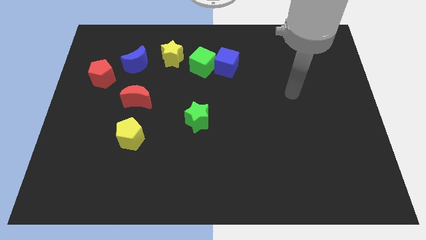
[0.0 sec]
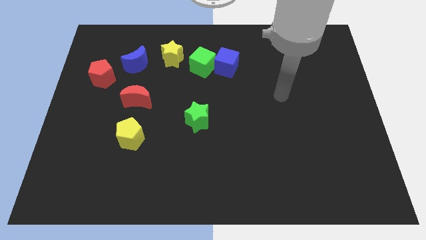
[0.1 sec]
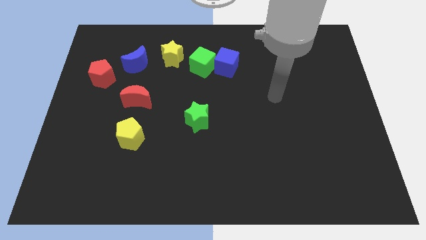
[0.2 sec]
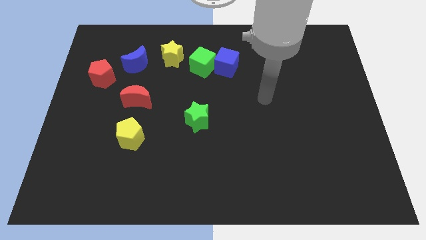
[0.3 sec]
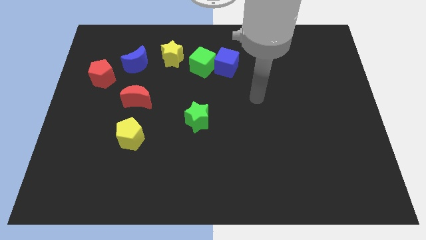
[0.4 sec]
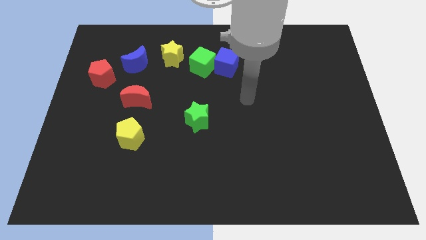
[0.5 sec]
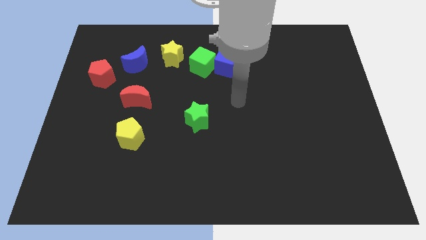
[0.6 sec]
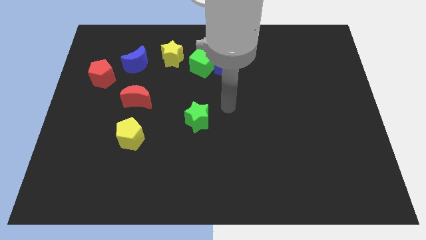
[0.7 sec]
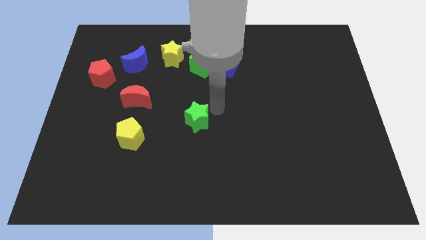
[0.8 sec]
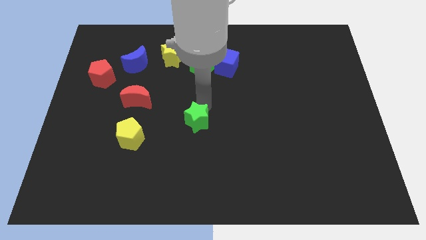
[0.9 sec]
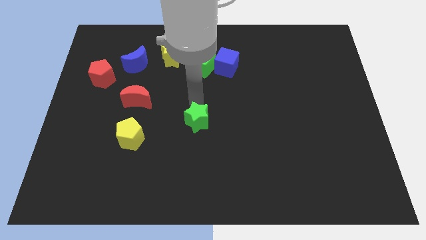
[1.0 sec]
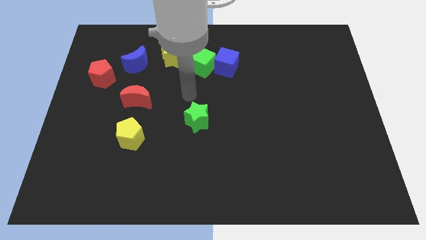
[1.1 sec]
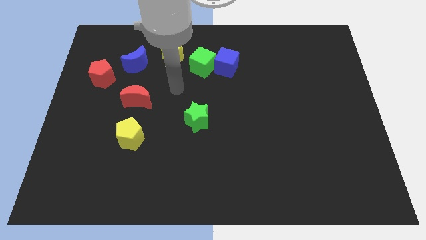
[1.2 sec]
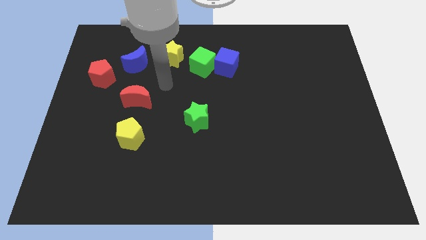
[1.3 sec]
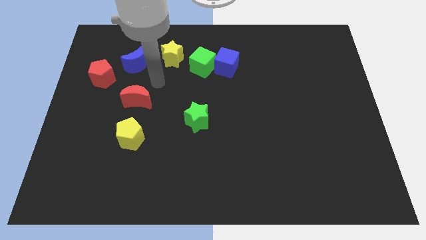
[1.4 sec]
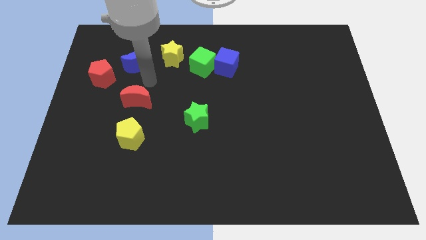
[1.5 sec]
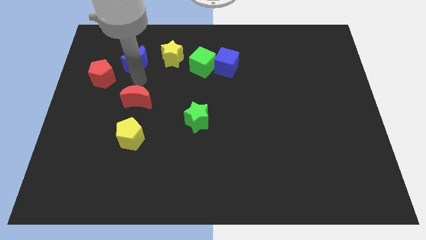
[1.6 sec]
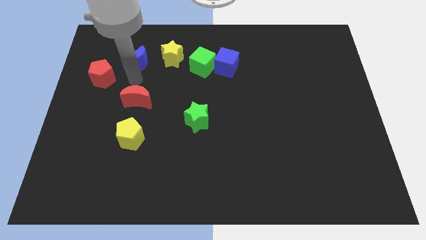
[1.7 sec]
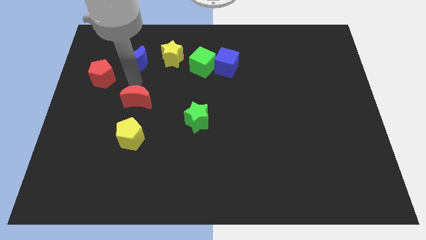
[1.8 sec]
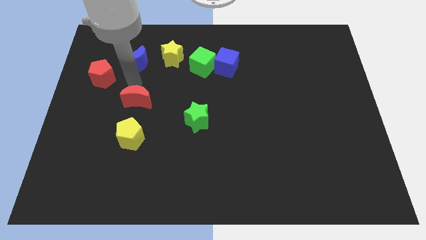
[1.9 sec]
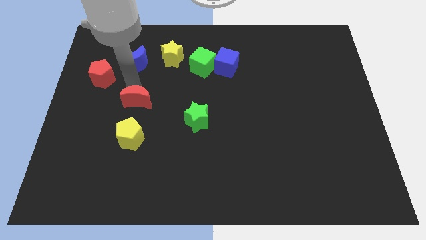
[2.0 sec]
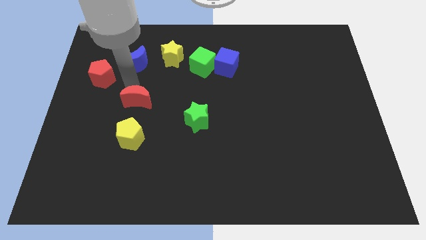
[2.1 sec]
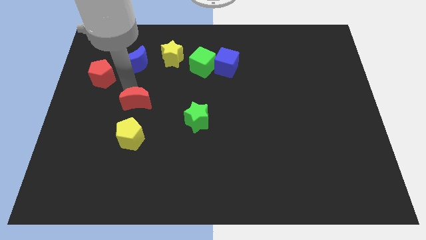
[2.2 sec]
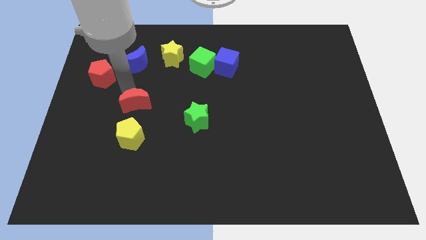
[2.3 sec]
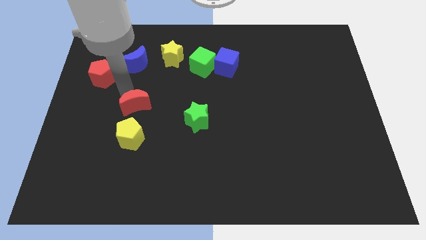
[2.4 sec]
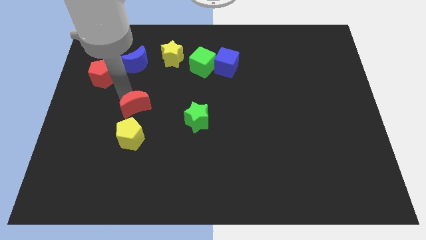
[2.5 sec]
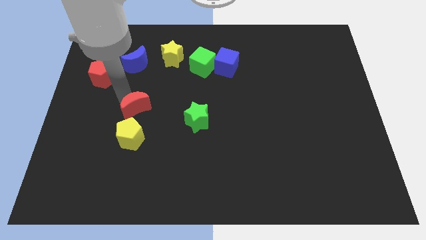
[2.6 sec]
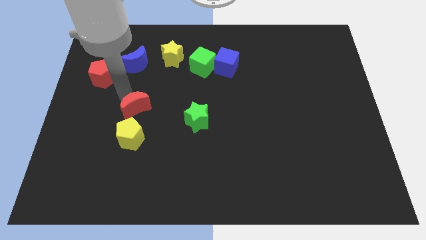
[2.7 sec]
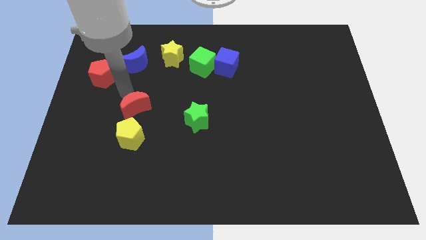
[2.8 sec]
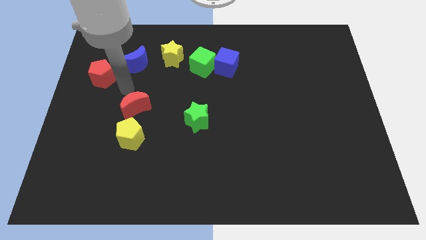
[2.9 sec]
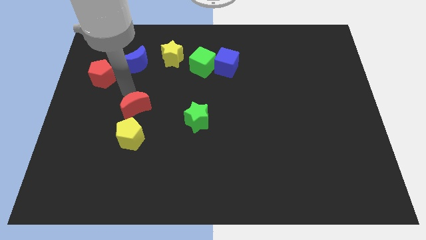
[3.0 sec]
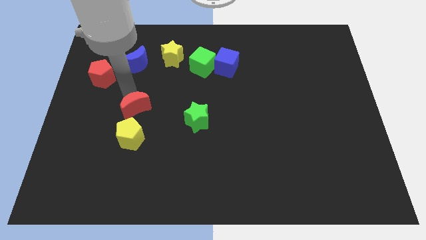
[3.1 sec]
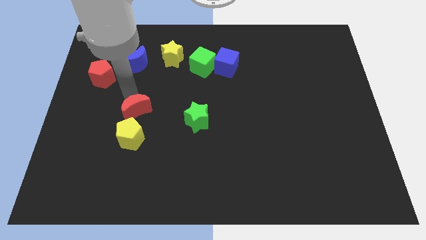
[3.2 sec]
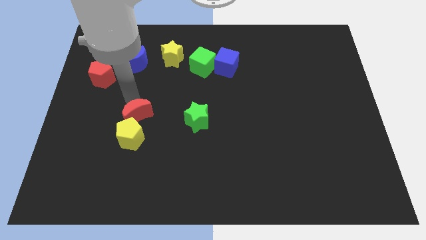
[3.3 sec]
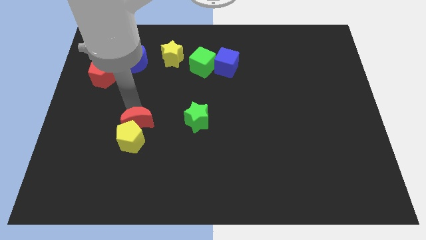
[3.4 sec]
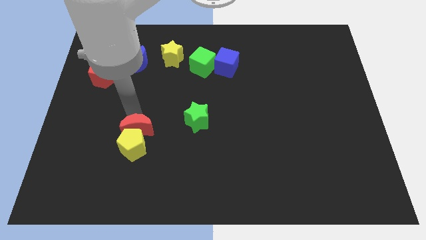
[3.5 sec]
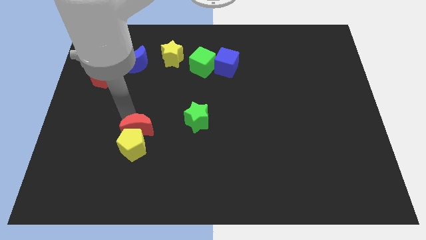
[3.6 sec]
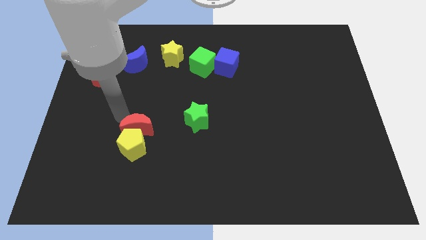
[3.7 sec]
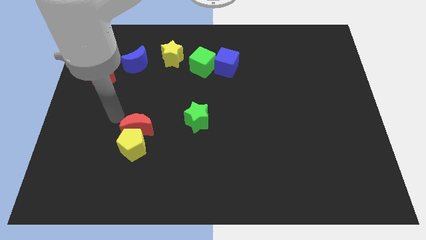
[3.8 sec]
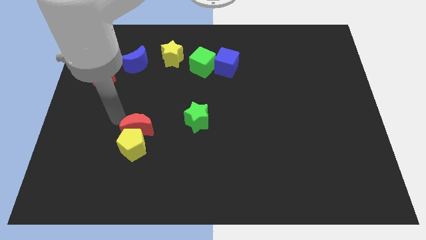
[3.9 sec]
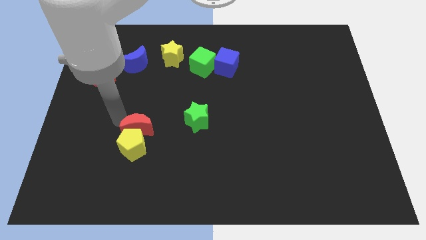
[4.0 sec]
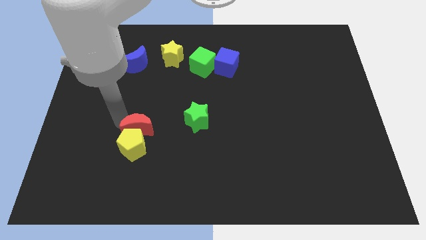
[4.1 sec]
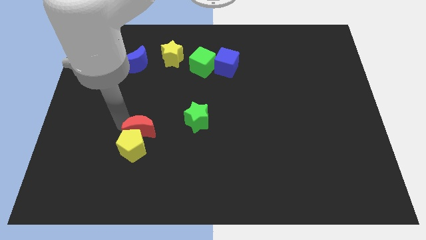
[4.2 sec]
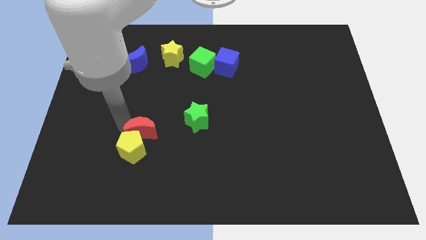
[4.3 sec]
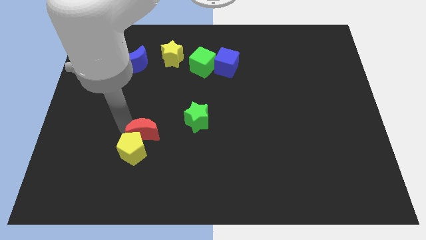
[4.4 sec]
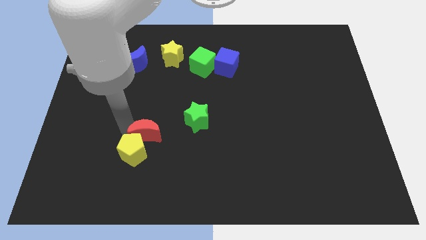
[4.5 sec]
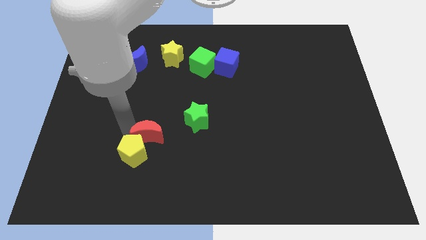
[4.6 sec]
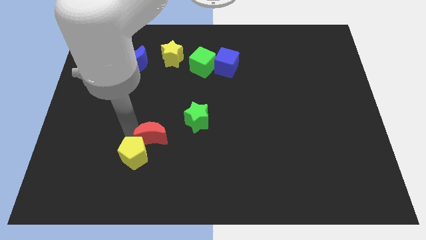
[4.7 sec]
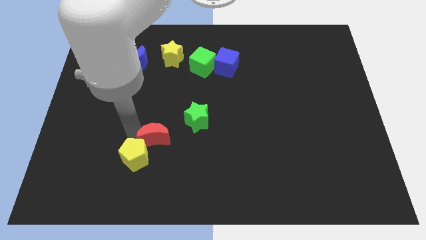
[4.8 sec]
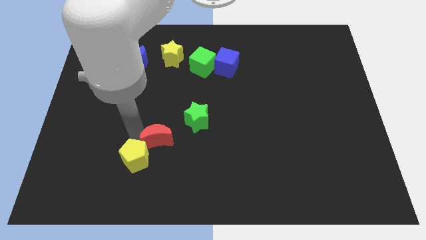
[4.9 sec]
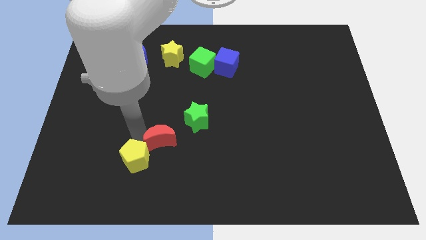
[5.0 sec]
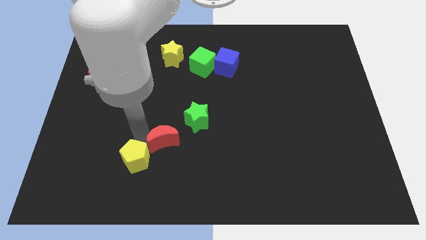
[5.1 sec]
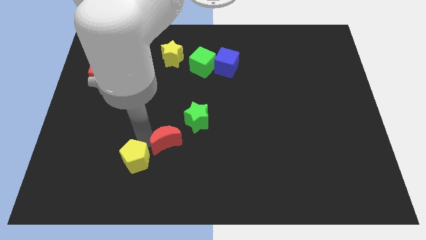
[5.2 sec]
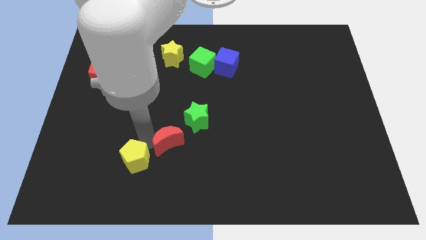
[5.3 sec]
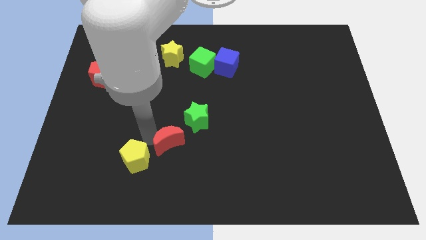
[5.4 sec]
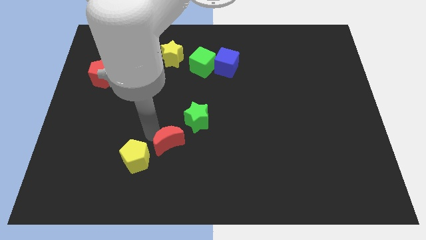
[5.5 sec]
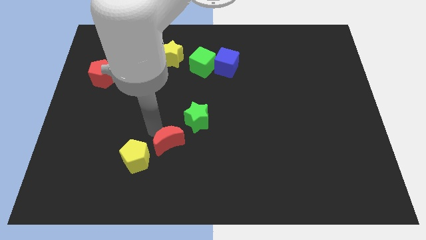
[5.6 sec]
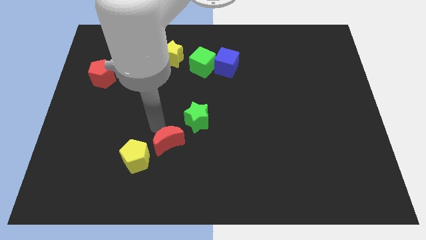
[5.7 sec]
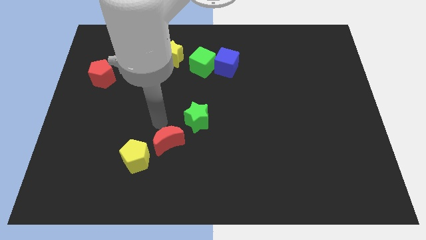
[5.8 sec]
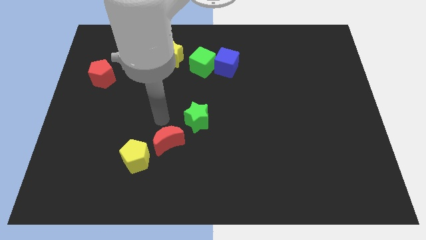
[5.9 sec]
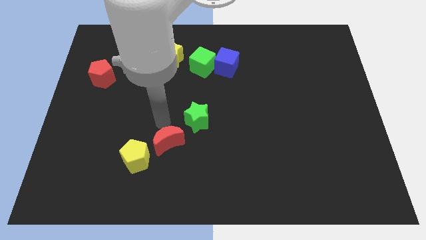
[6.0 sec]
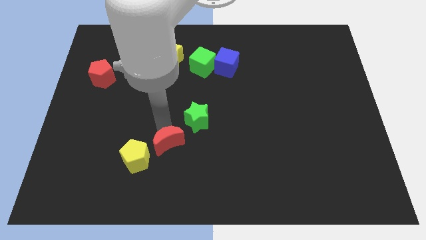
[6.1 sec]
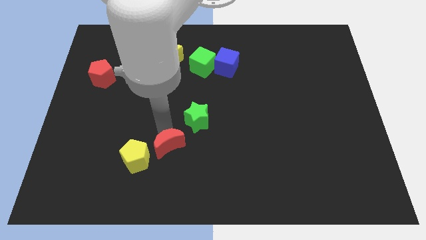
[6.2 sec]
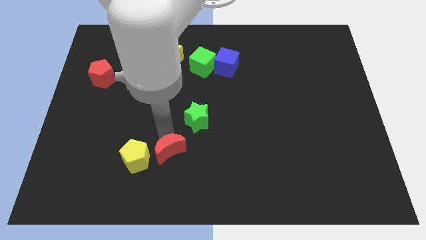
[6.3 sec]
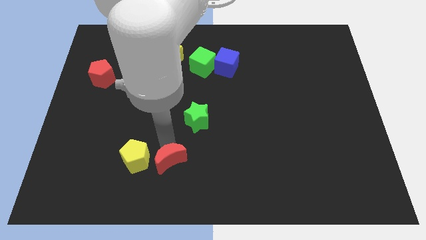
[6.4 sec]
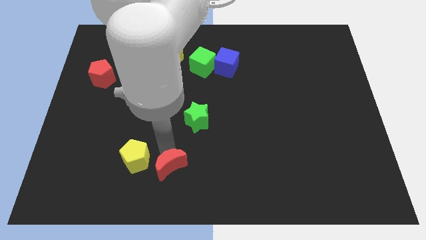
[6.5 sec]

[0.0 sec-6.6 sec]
slide the red moon to the bottom side
